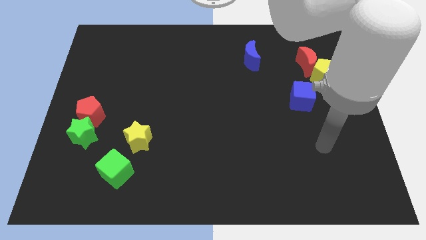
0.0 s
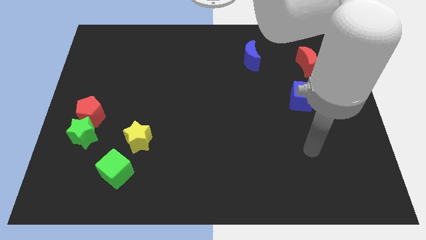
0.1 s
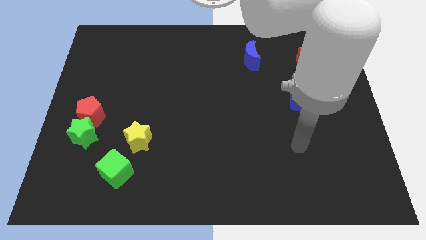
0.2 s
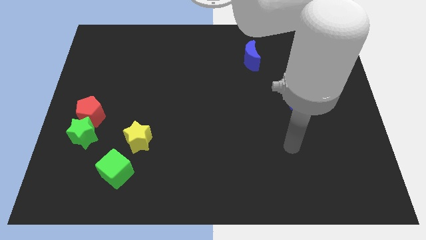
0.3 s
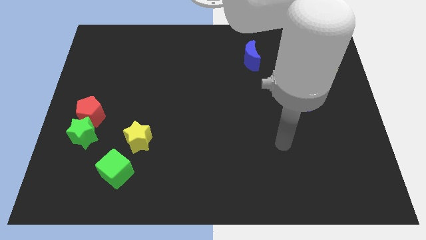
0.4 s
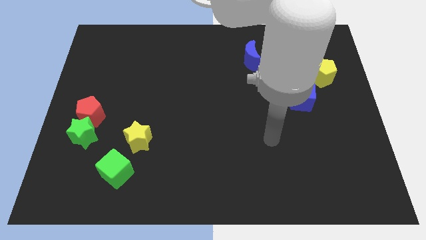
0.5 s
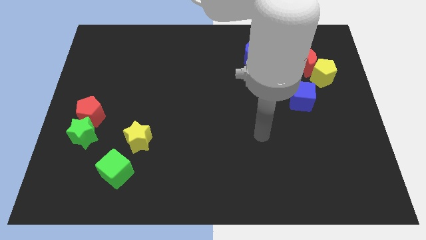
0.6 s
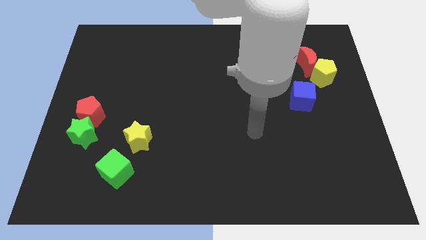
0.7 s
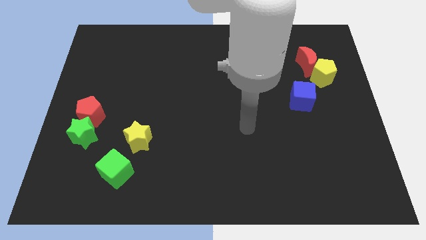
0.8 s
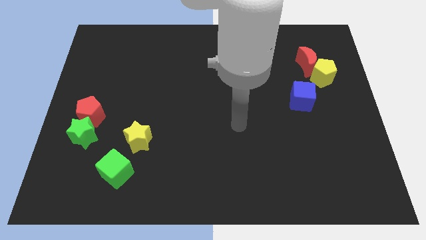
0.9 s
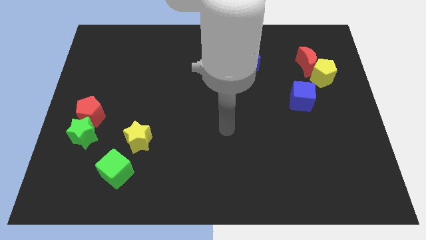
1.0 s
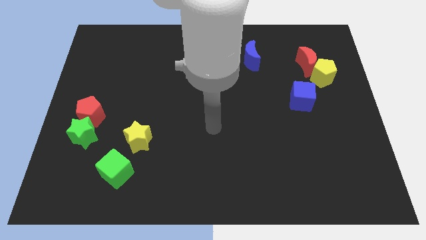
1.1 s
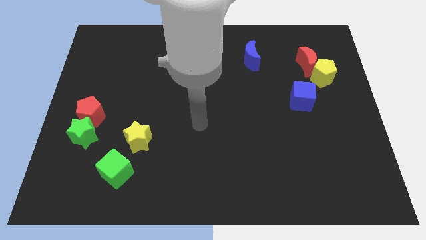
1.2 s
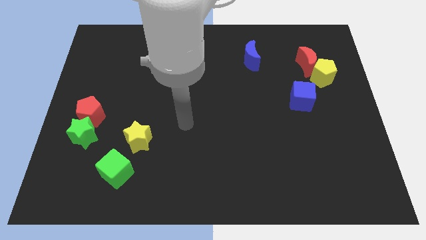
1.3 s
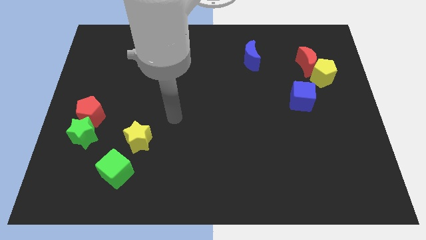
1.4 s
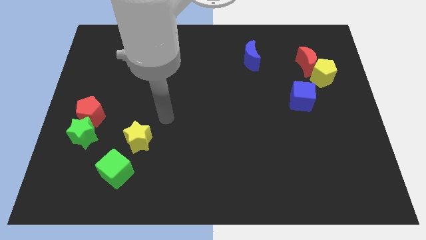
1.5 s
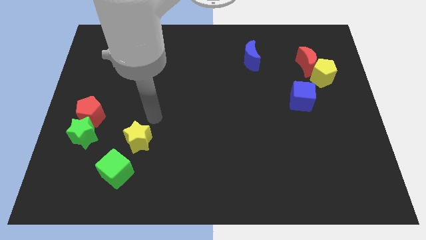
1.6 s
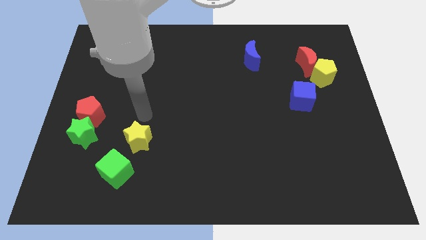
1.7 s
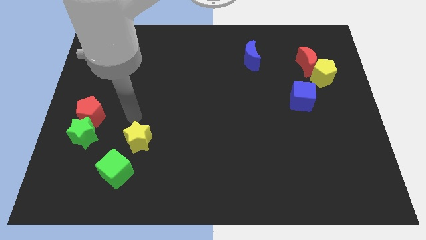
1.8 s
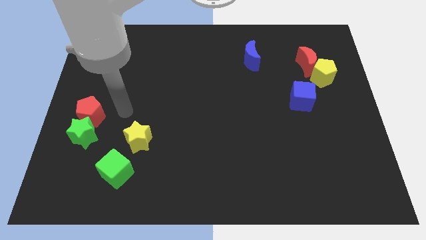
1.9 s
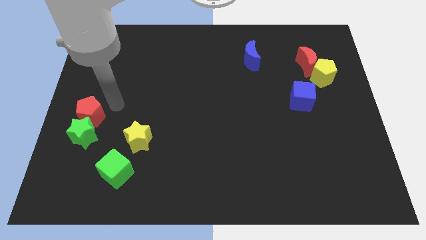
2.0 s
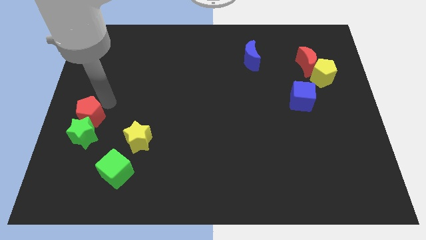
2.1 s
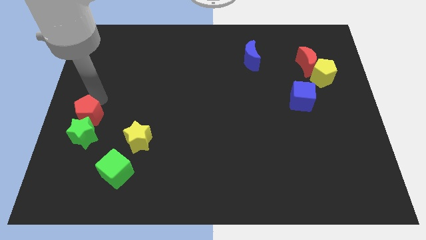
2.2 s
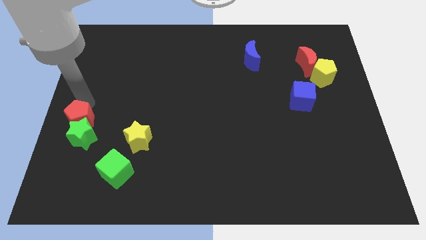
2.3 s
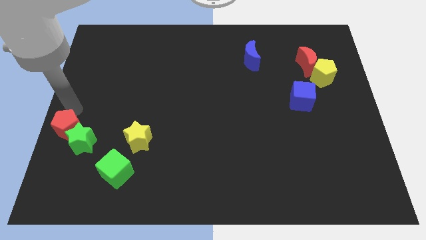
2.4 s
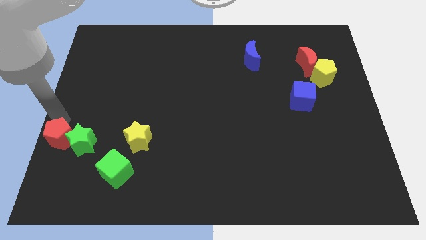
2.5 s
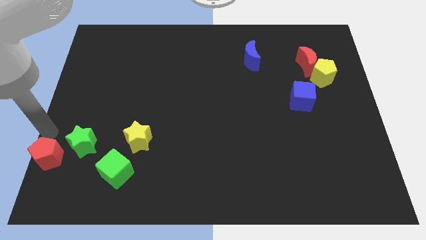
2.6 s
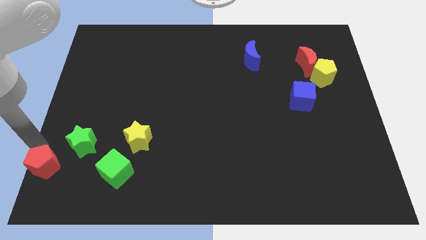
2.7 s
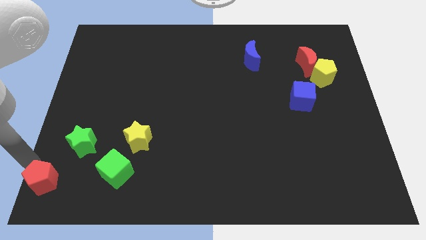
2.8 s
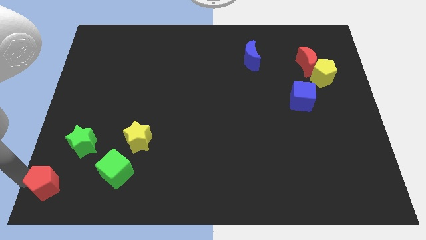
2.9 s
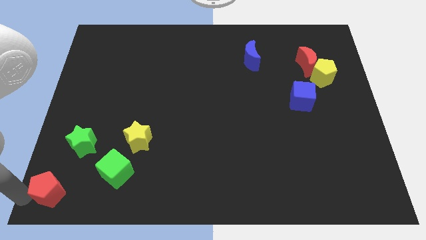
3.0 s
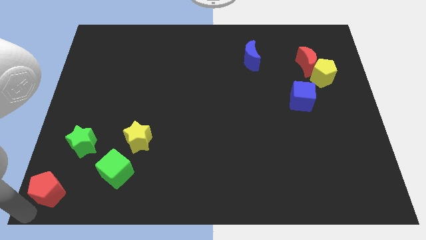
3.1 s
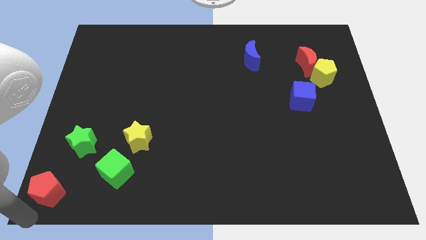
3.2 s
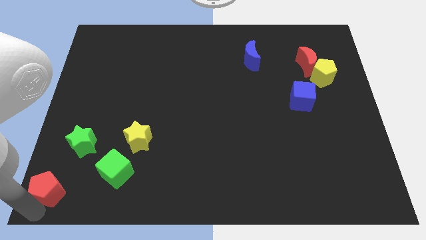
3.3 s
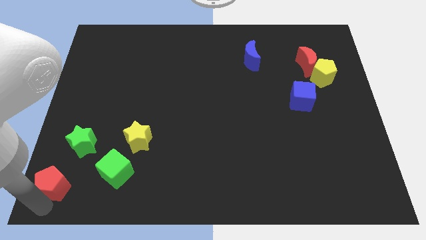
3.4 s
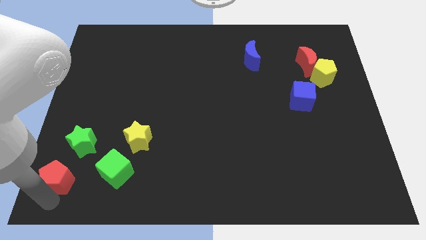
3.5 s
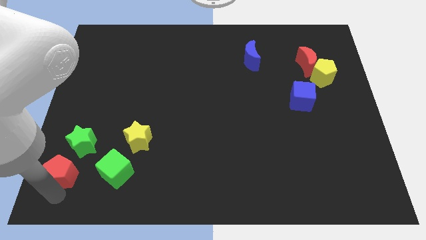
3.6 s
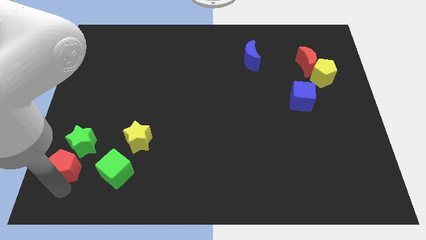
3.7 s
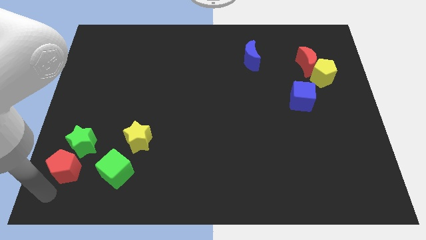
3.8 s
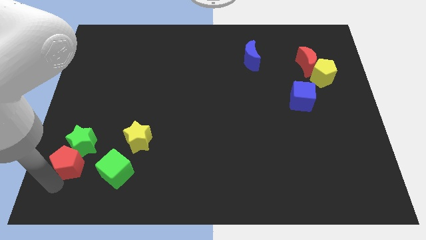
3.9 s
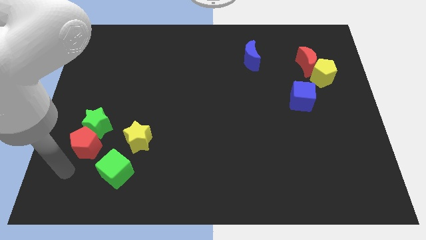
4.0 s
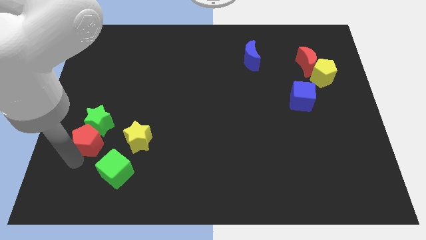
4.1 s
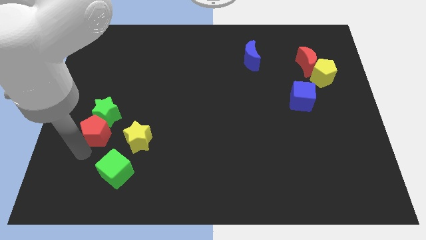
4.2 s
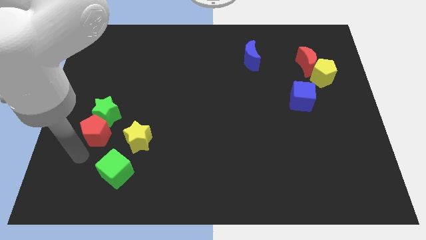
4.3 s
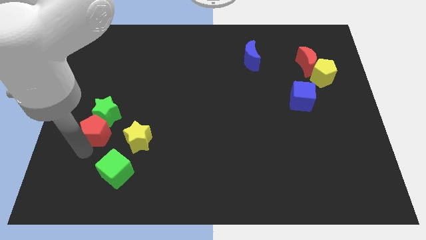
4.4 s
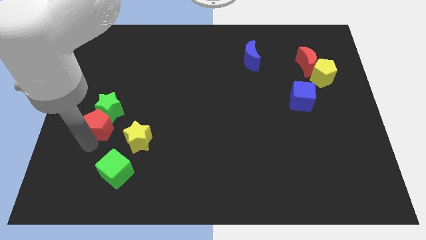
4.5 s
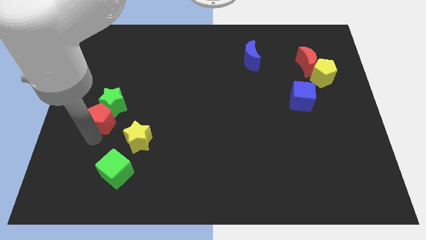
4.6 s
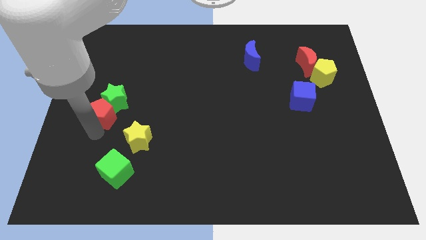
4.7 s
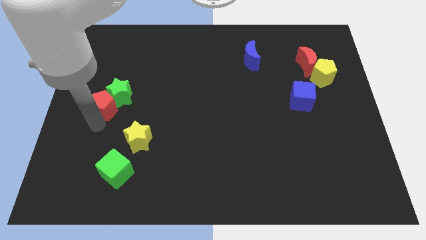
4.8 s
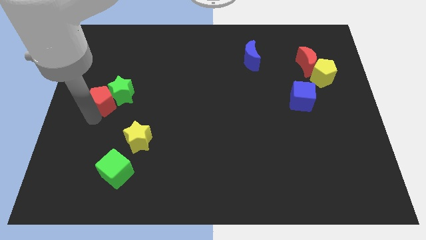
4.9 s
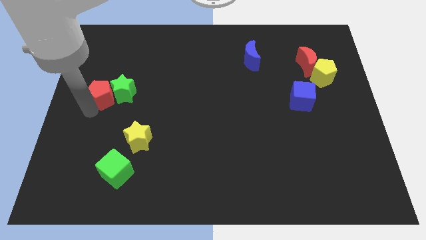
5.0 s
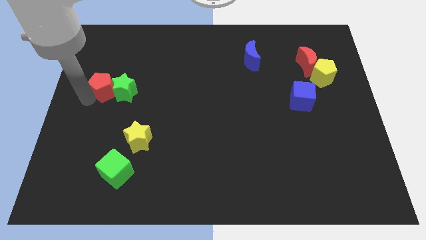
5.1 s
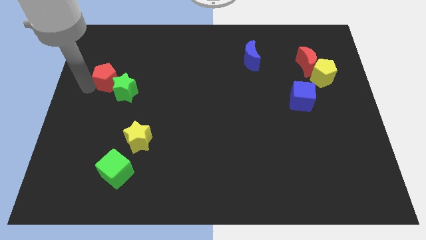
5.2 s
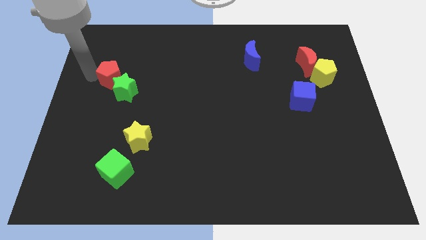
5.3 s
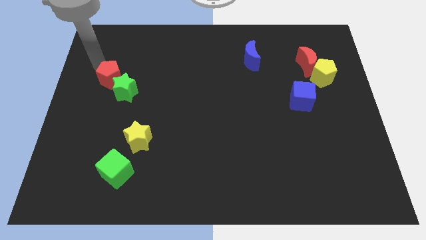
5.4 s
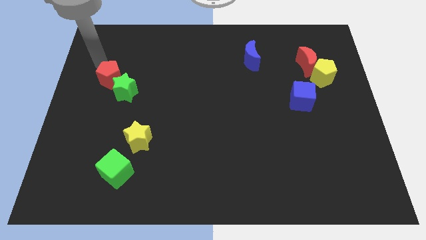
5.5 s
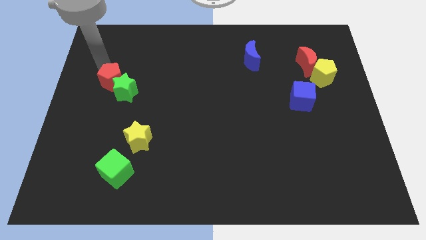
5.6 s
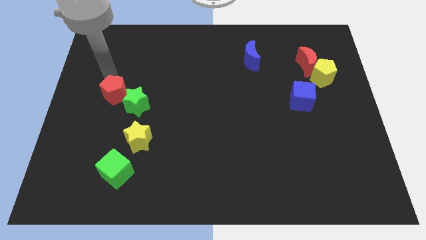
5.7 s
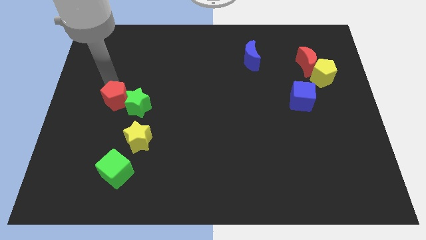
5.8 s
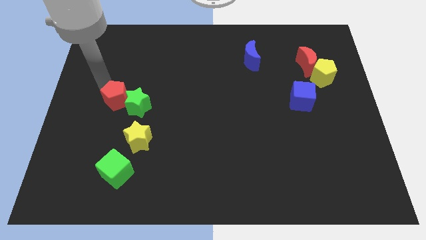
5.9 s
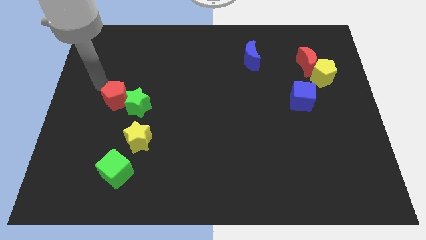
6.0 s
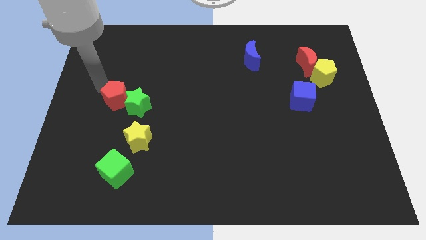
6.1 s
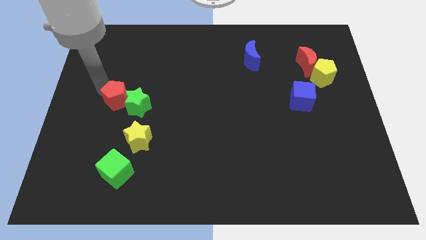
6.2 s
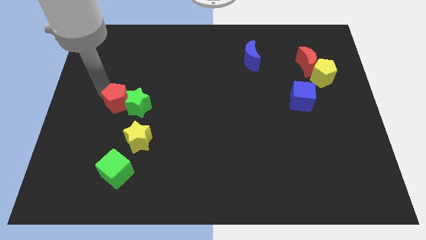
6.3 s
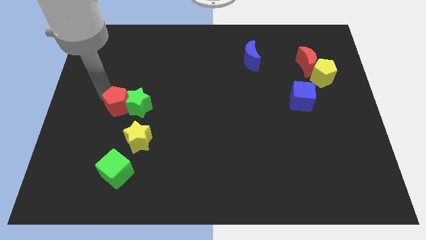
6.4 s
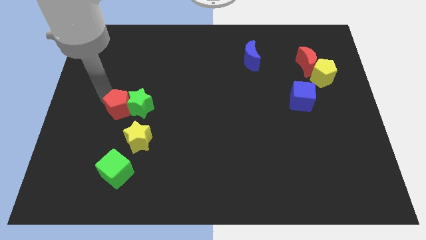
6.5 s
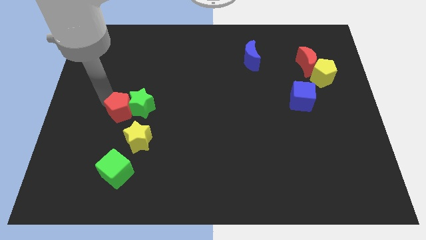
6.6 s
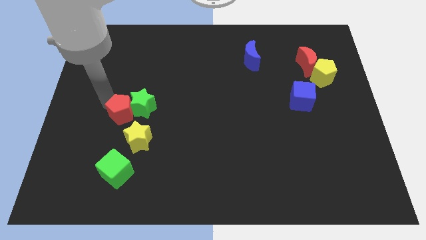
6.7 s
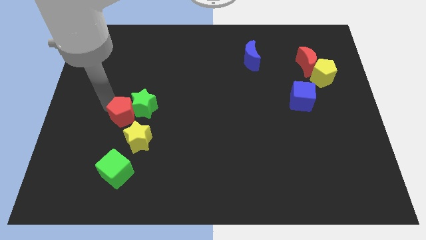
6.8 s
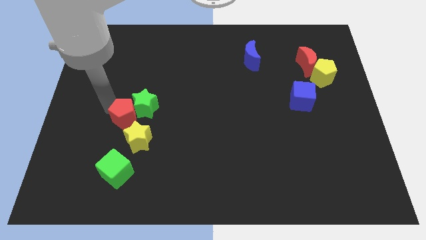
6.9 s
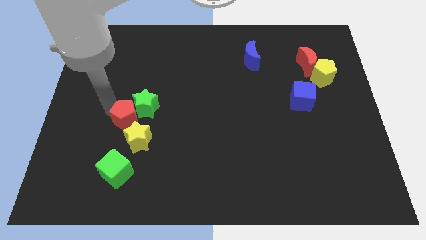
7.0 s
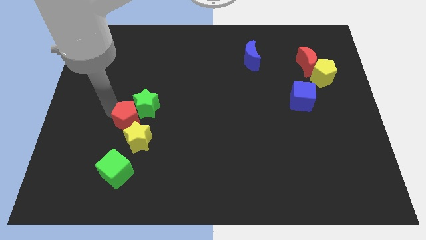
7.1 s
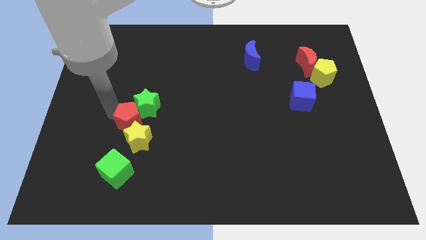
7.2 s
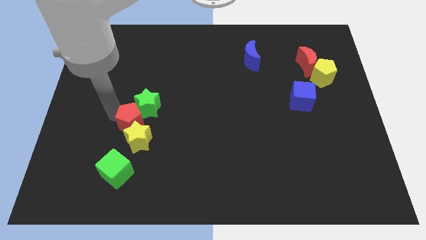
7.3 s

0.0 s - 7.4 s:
push the red pentagon a little bit down and to the right diagonally

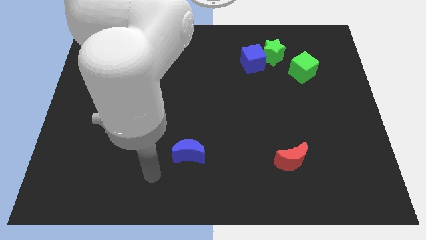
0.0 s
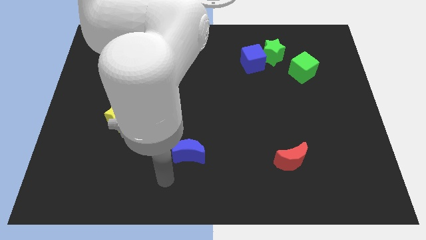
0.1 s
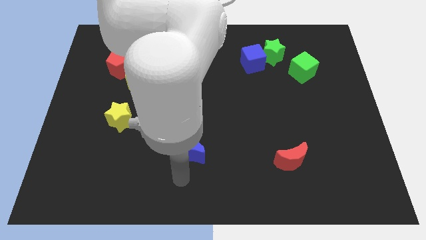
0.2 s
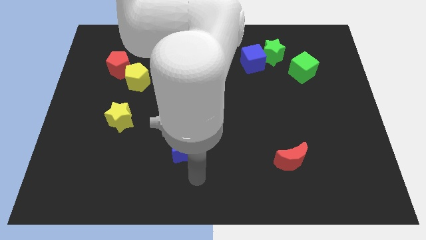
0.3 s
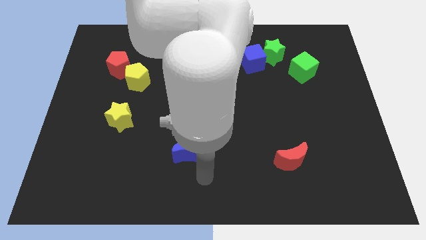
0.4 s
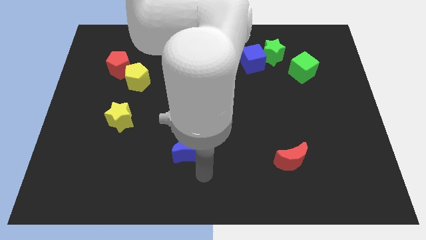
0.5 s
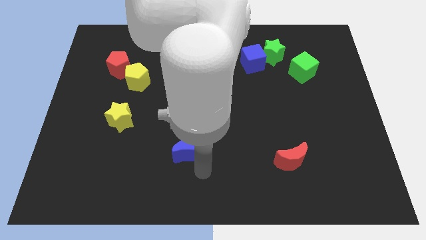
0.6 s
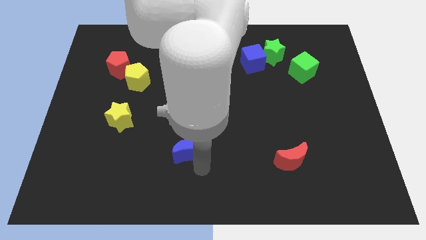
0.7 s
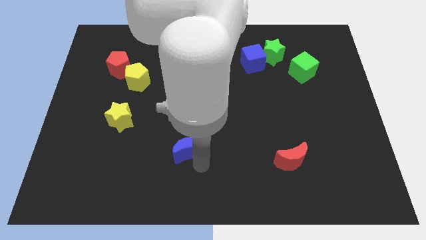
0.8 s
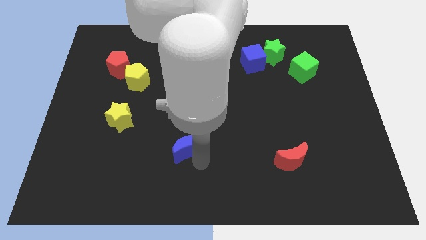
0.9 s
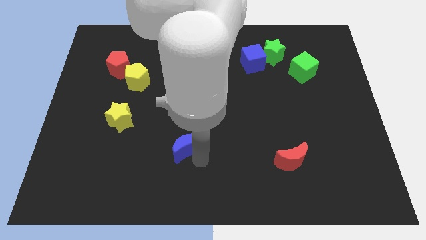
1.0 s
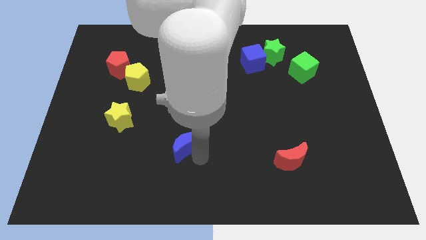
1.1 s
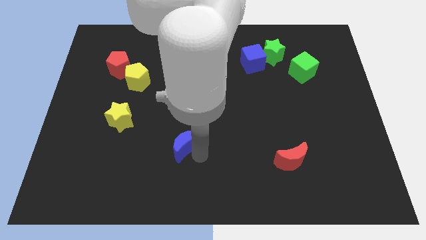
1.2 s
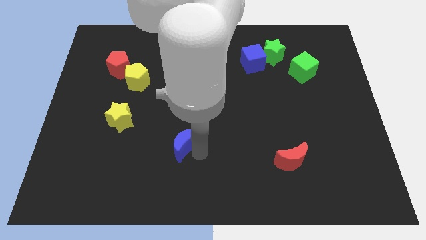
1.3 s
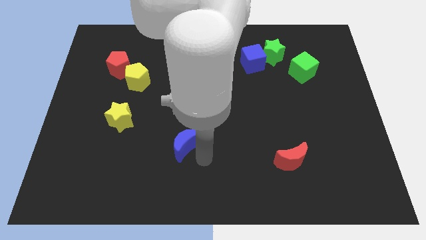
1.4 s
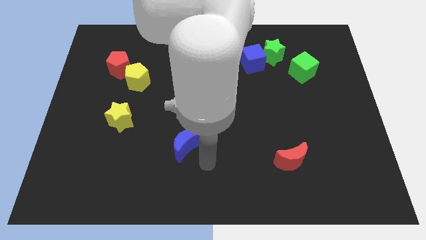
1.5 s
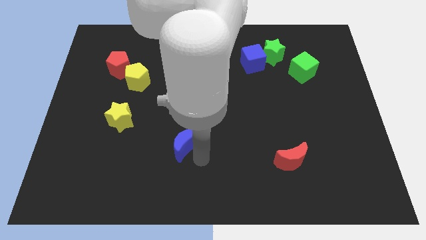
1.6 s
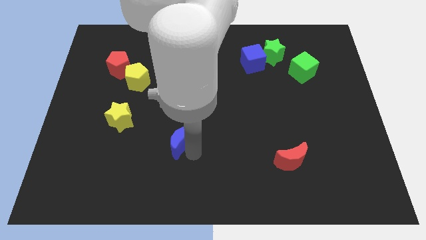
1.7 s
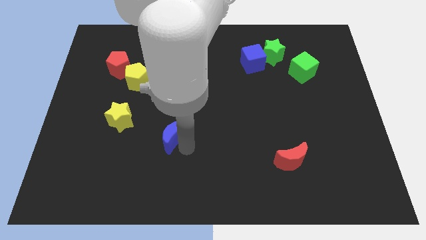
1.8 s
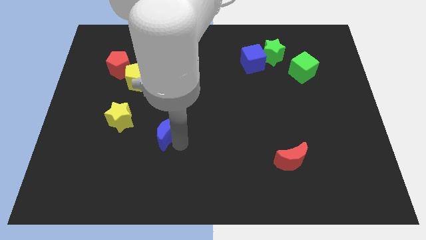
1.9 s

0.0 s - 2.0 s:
slightly push the blue moon upwards and to the left diagonally
